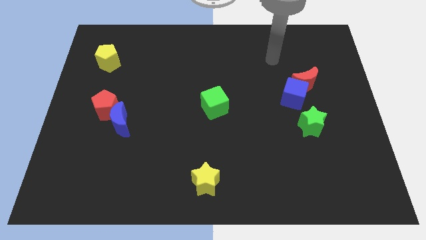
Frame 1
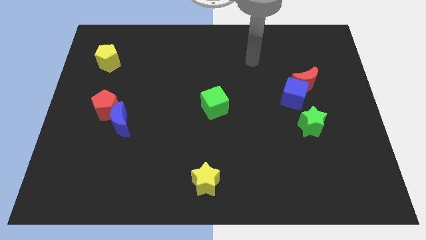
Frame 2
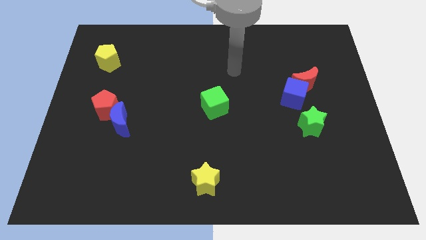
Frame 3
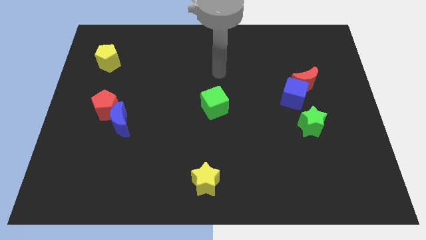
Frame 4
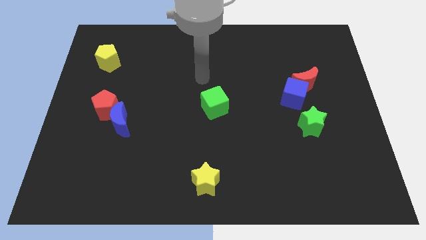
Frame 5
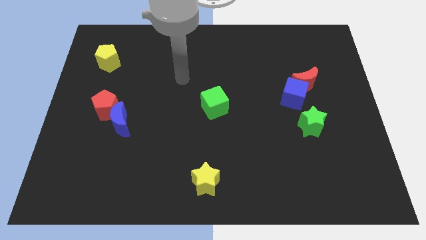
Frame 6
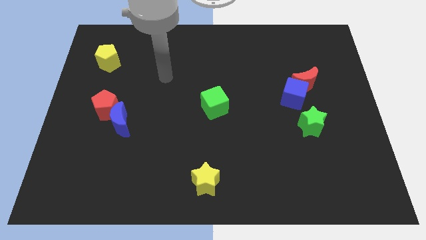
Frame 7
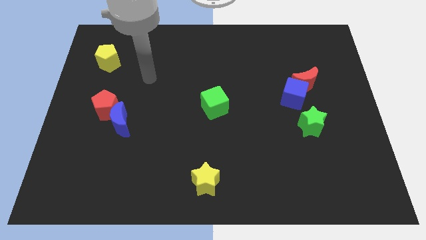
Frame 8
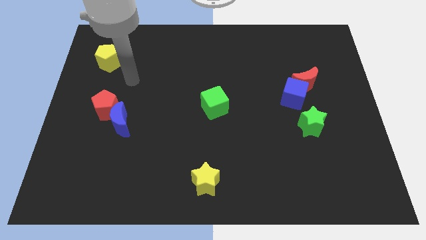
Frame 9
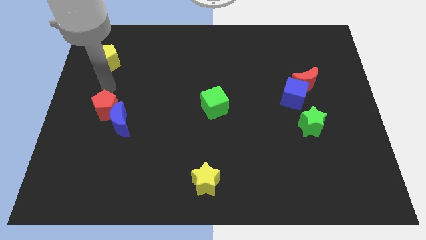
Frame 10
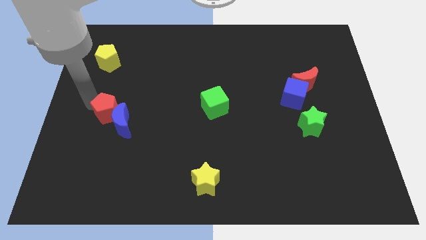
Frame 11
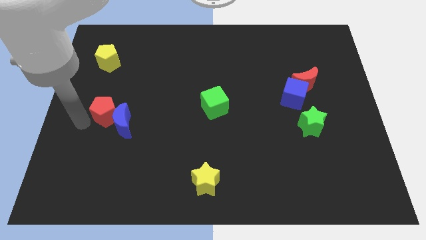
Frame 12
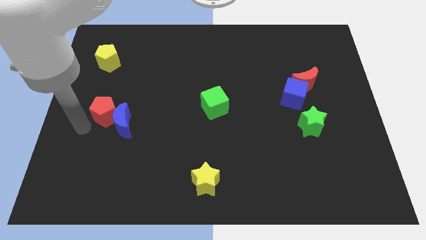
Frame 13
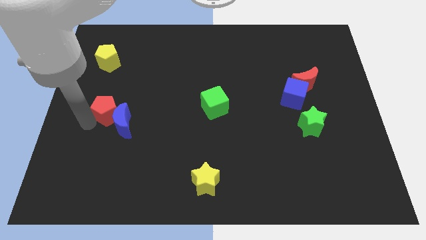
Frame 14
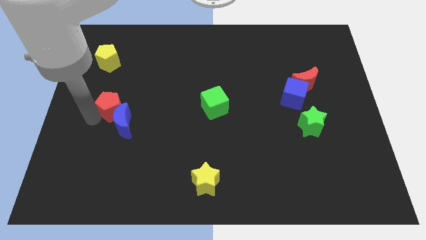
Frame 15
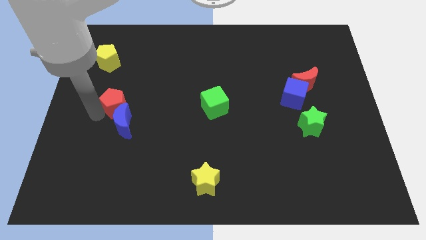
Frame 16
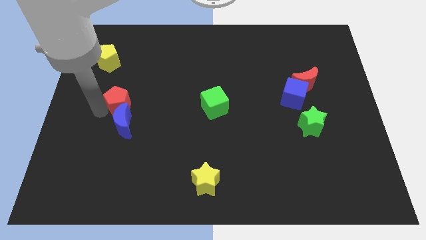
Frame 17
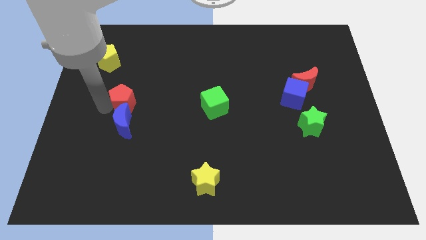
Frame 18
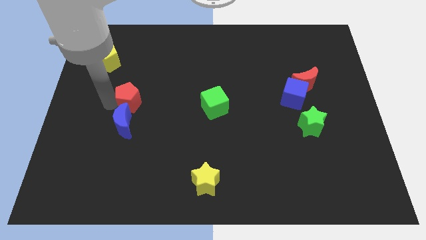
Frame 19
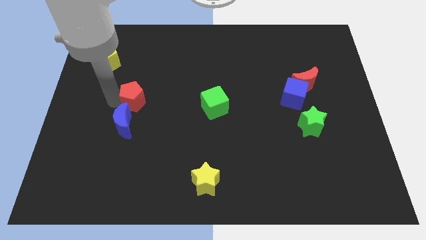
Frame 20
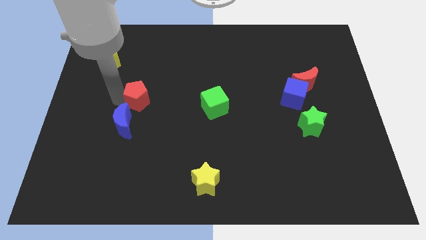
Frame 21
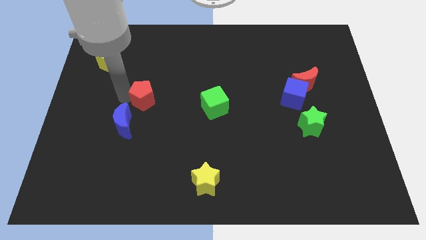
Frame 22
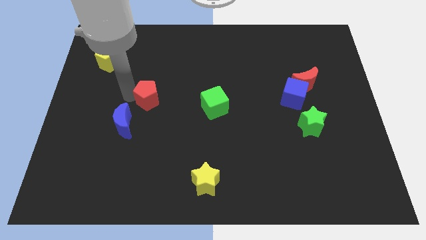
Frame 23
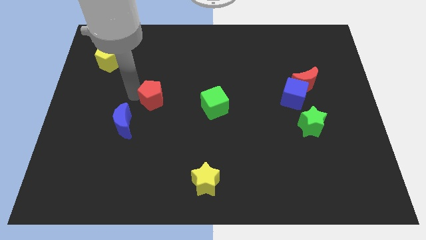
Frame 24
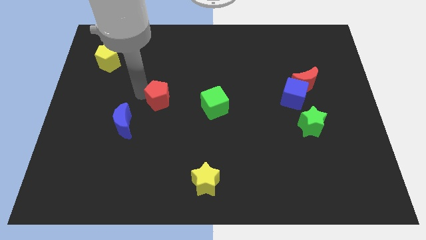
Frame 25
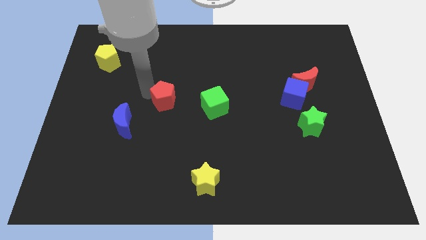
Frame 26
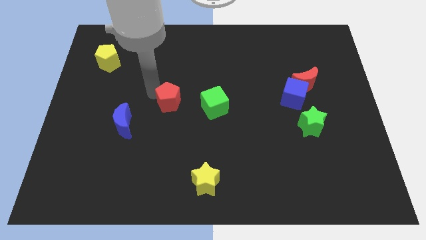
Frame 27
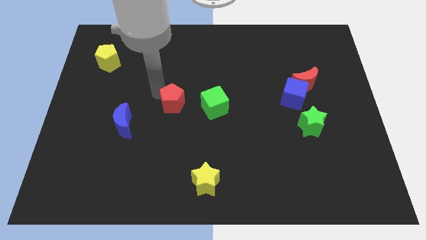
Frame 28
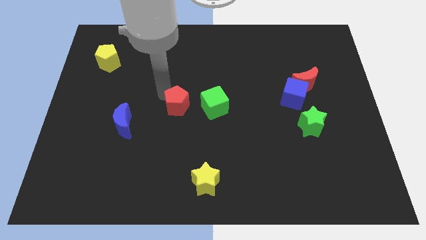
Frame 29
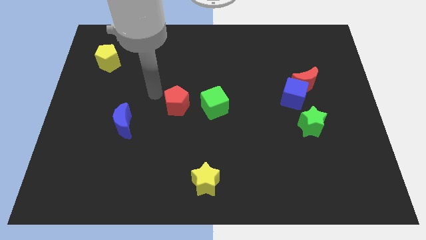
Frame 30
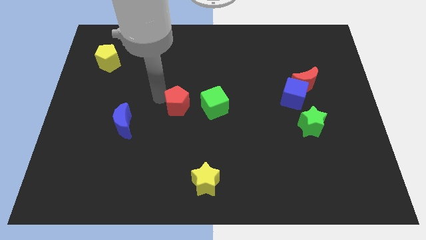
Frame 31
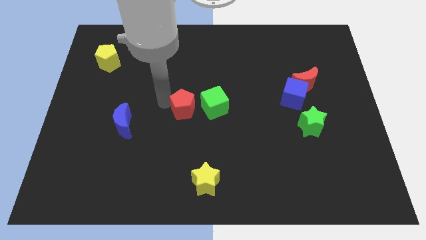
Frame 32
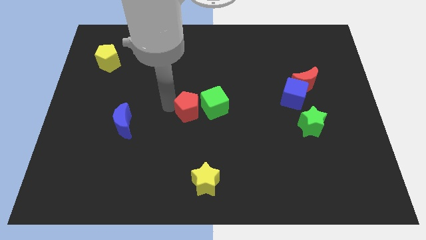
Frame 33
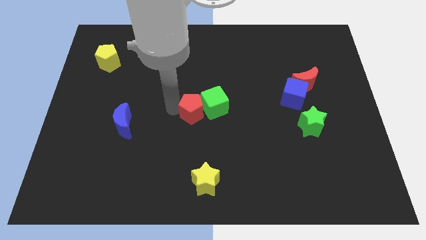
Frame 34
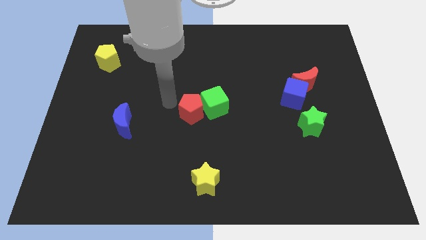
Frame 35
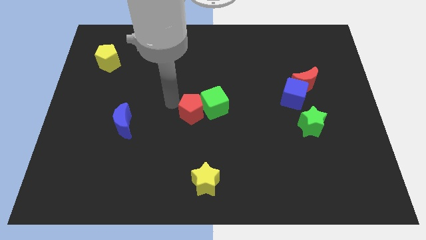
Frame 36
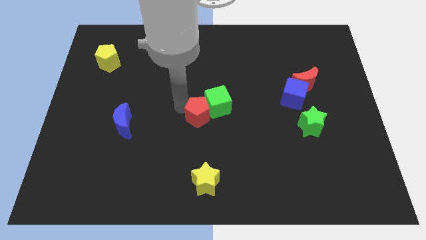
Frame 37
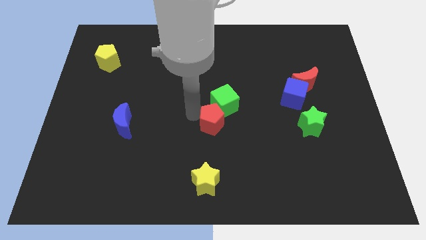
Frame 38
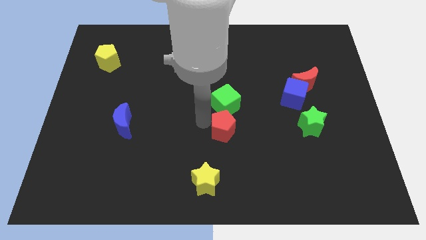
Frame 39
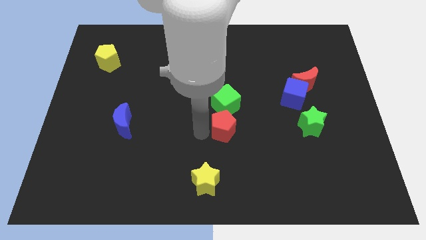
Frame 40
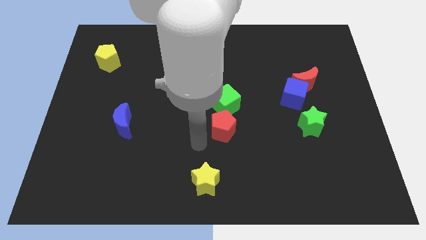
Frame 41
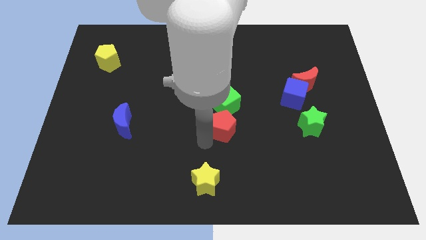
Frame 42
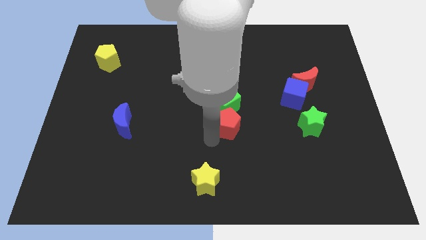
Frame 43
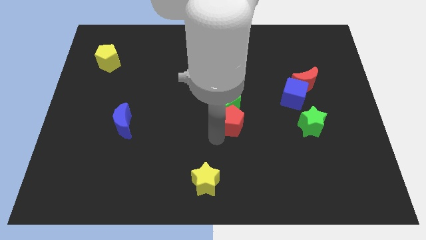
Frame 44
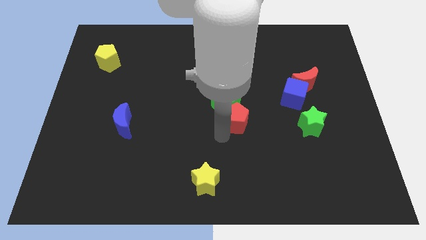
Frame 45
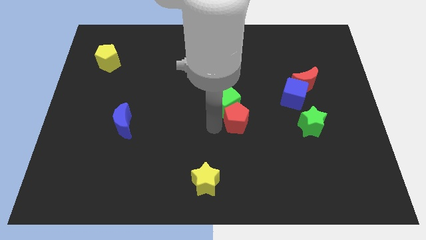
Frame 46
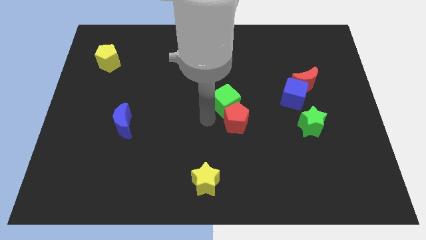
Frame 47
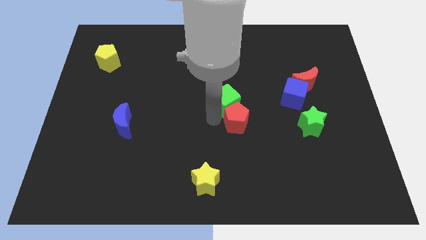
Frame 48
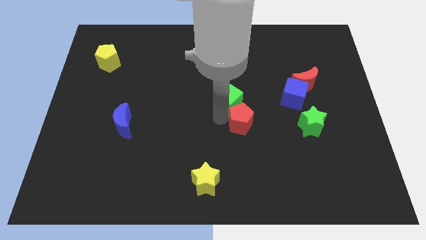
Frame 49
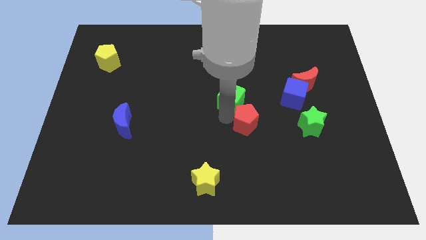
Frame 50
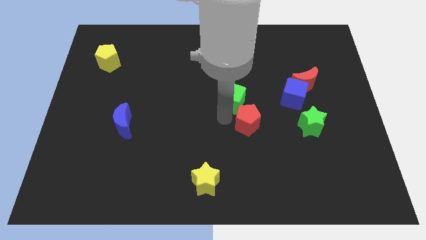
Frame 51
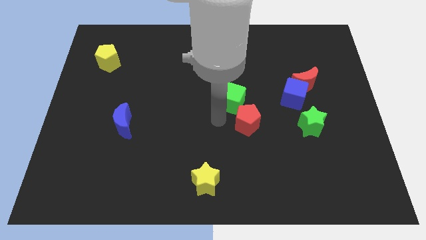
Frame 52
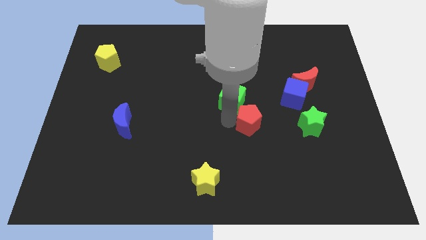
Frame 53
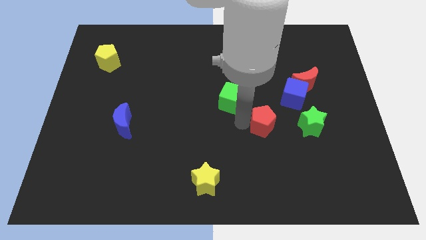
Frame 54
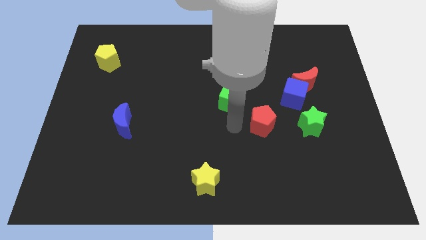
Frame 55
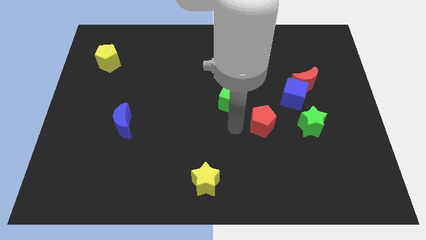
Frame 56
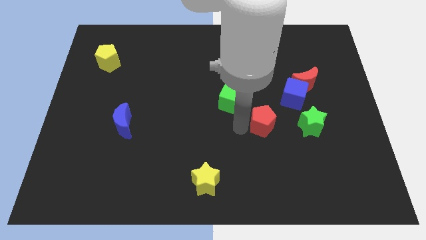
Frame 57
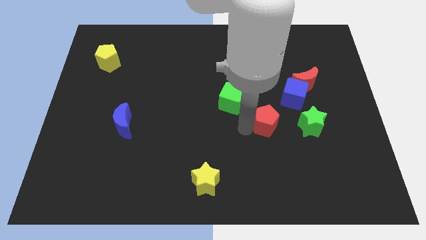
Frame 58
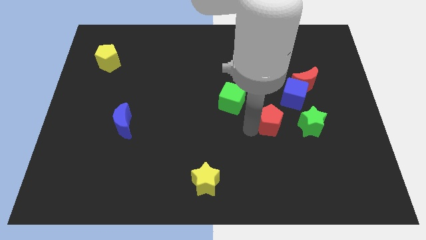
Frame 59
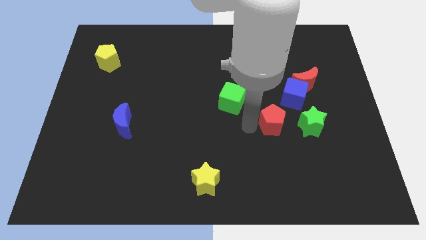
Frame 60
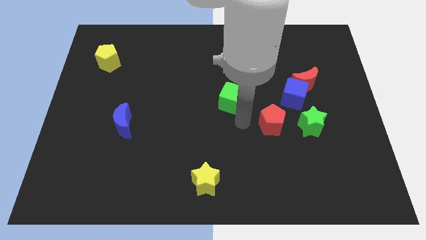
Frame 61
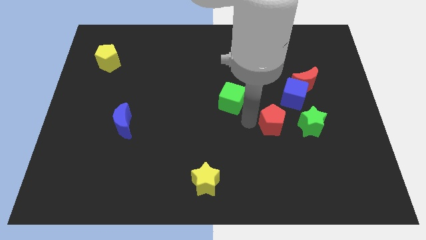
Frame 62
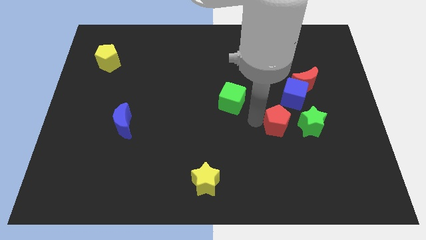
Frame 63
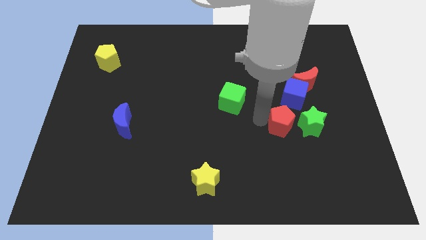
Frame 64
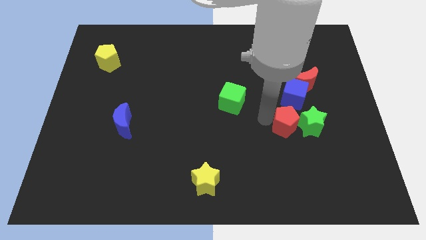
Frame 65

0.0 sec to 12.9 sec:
move the red pentagon towards the green star
